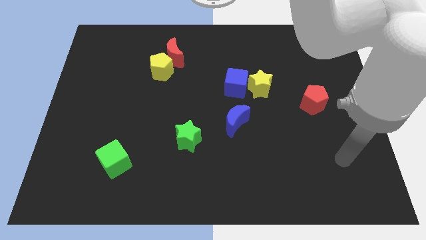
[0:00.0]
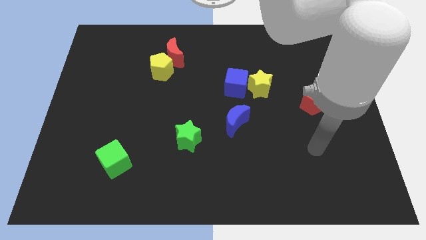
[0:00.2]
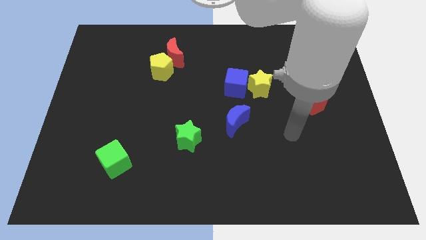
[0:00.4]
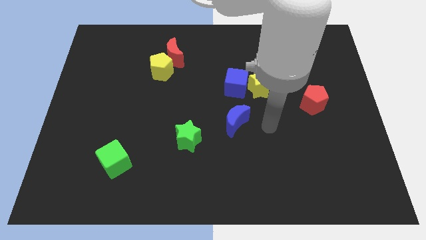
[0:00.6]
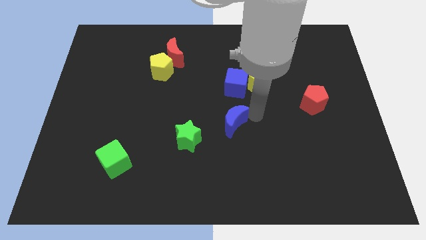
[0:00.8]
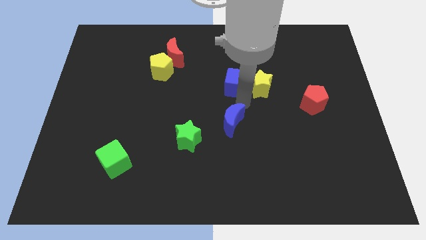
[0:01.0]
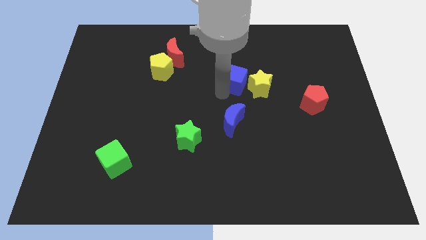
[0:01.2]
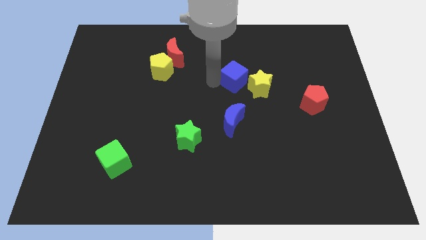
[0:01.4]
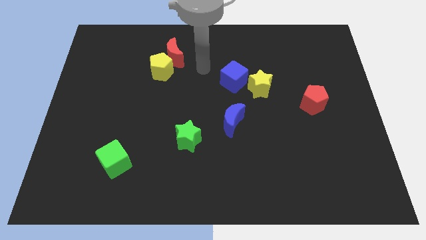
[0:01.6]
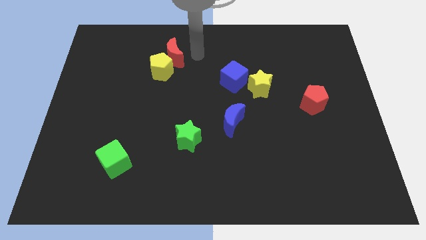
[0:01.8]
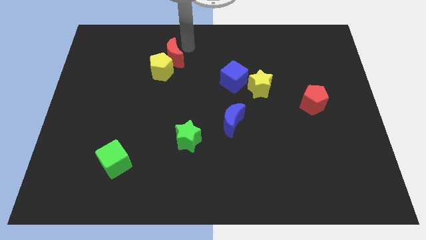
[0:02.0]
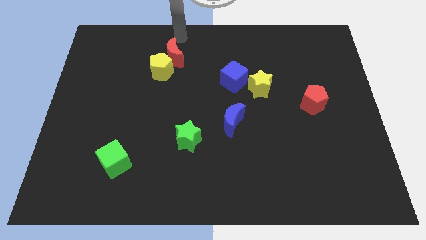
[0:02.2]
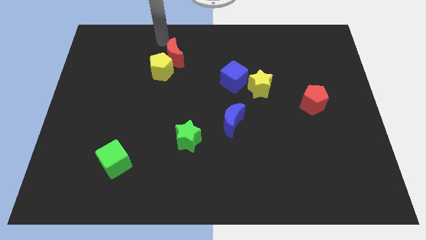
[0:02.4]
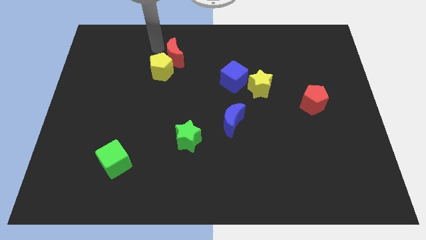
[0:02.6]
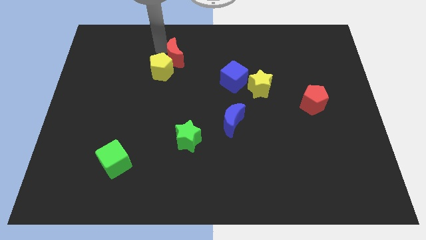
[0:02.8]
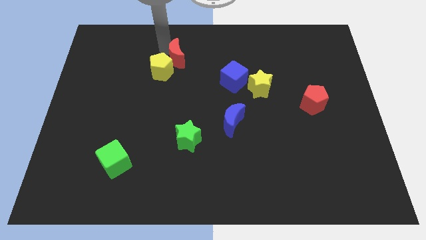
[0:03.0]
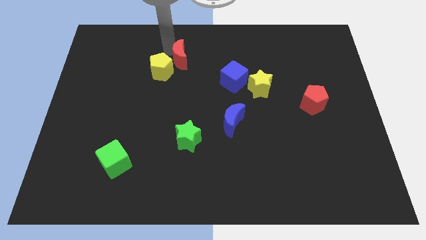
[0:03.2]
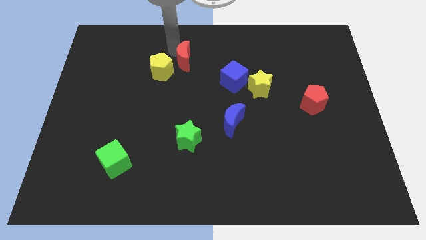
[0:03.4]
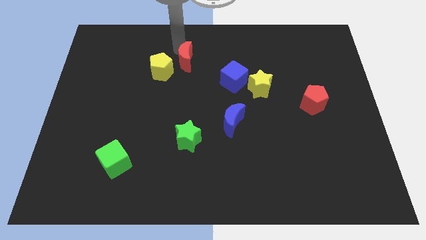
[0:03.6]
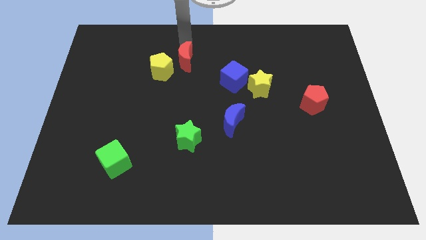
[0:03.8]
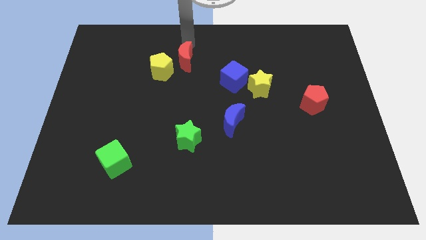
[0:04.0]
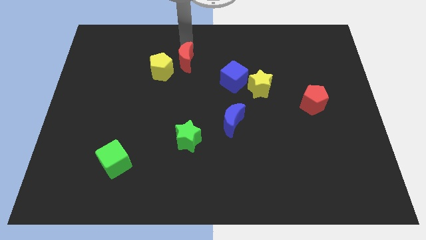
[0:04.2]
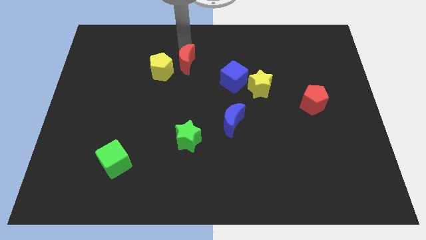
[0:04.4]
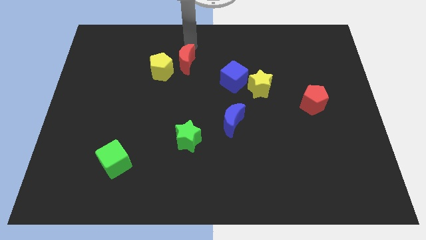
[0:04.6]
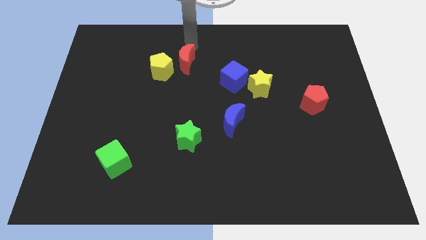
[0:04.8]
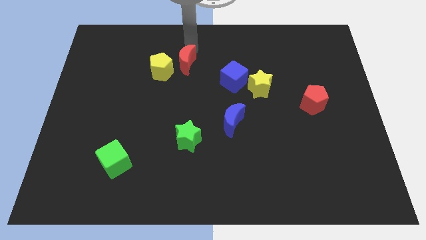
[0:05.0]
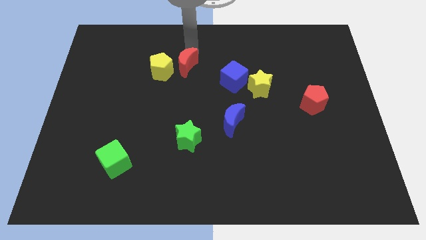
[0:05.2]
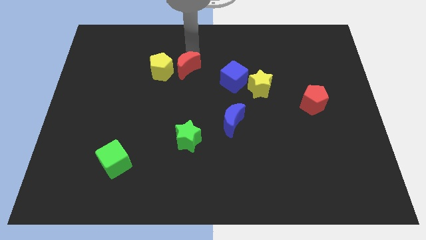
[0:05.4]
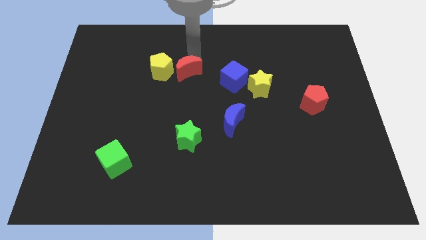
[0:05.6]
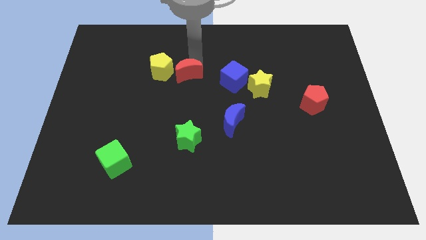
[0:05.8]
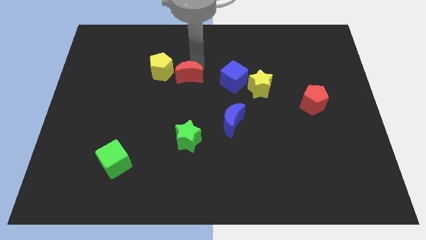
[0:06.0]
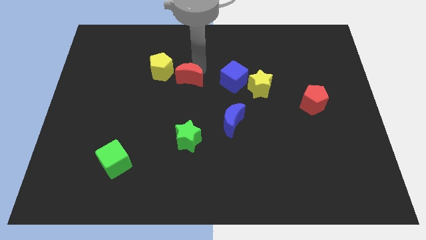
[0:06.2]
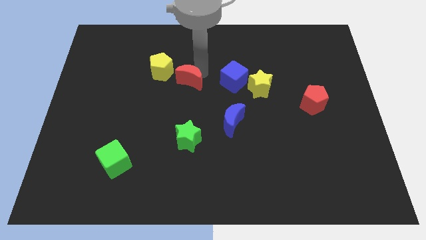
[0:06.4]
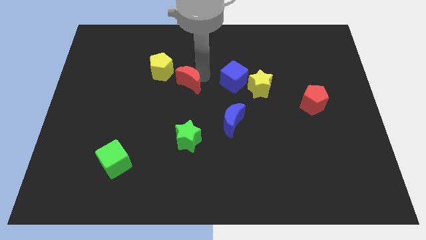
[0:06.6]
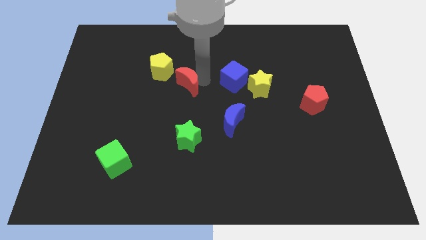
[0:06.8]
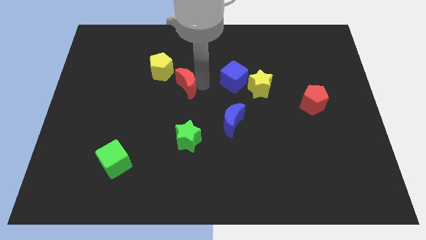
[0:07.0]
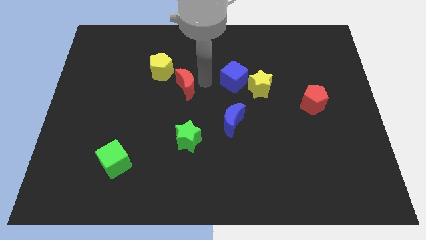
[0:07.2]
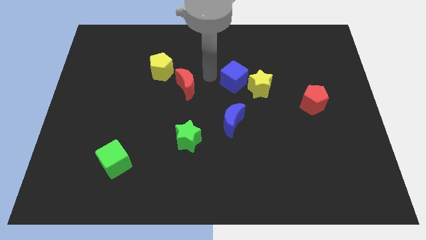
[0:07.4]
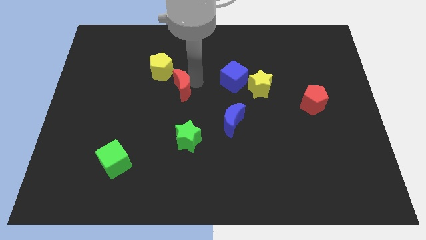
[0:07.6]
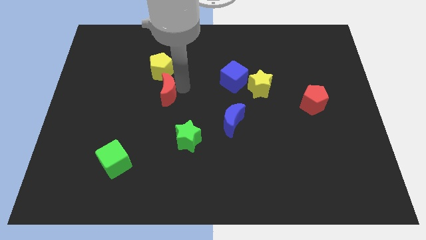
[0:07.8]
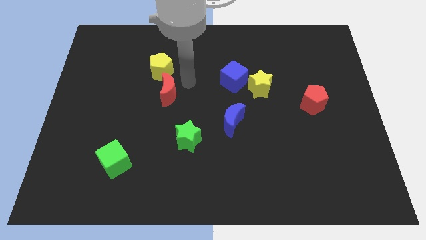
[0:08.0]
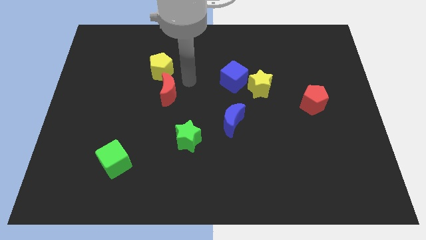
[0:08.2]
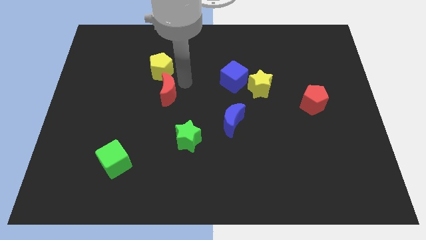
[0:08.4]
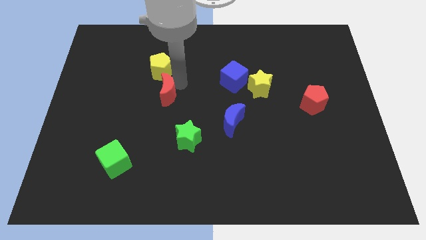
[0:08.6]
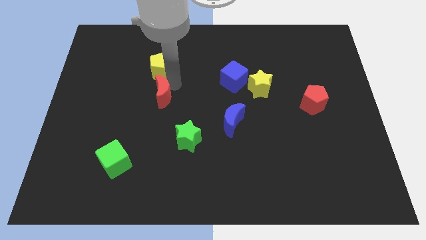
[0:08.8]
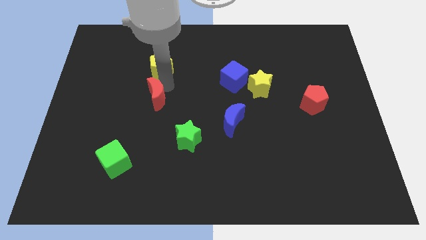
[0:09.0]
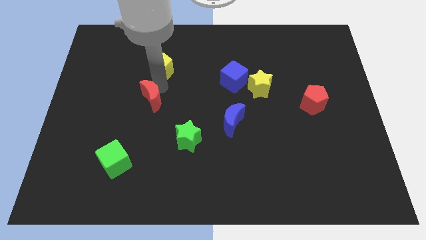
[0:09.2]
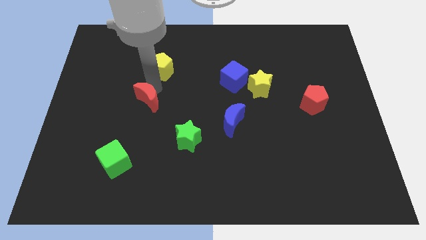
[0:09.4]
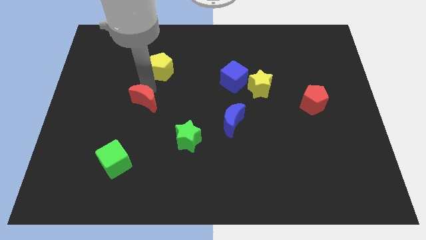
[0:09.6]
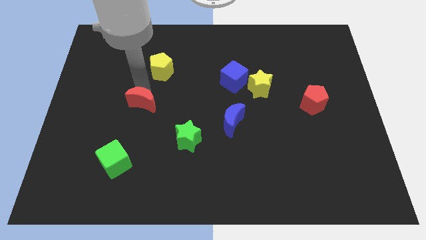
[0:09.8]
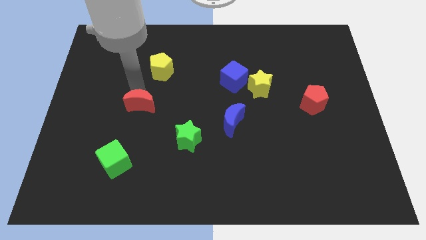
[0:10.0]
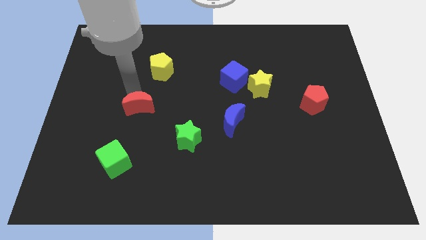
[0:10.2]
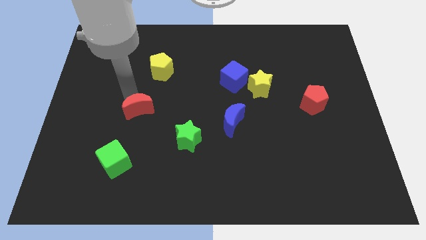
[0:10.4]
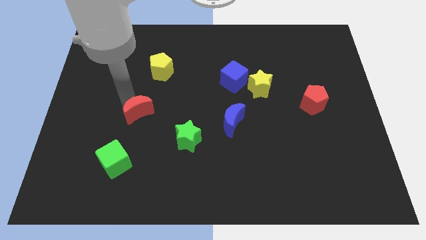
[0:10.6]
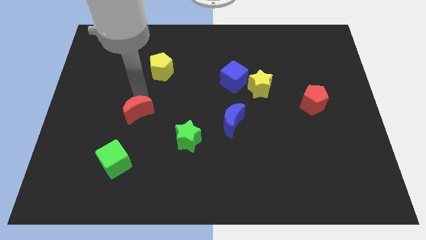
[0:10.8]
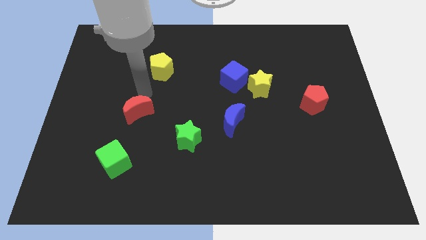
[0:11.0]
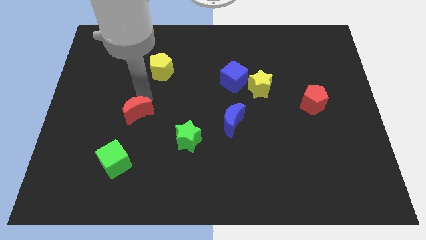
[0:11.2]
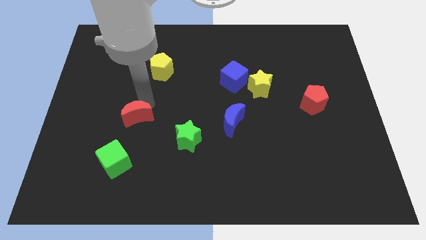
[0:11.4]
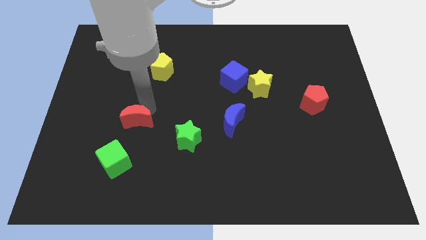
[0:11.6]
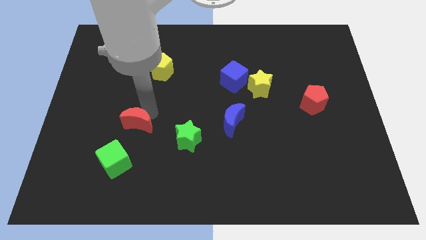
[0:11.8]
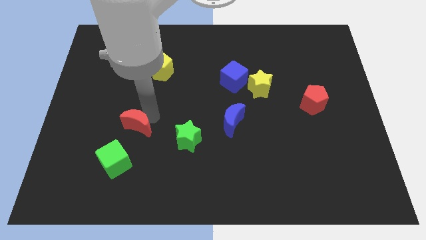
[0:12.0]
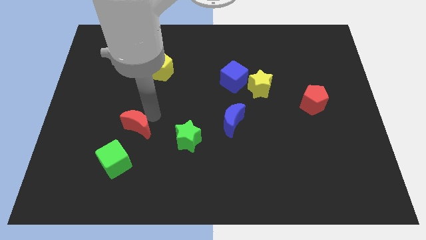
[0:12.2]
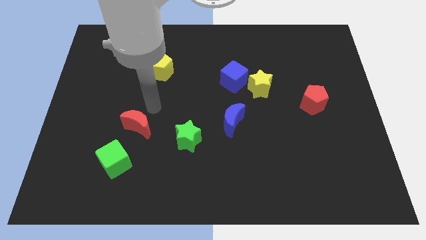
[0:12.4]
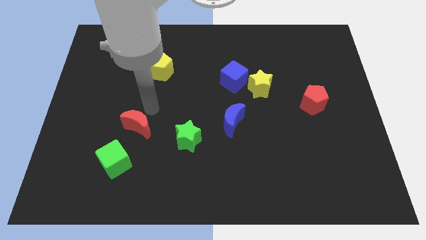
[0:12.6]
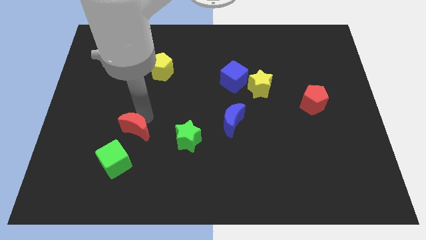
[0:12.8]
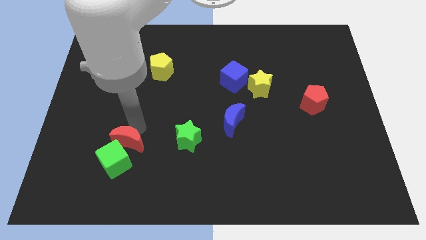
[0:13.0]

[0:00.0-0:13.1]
slide the red moon towards the green cube

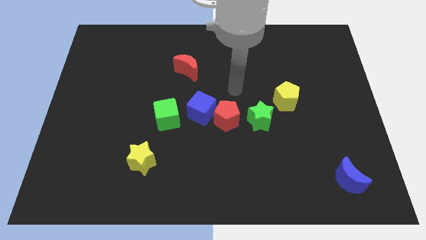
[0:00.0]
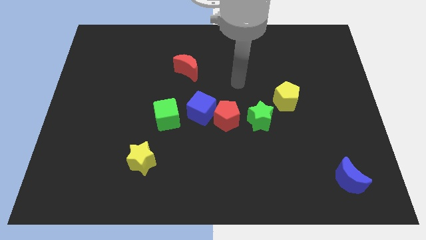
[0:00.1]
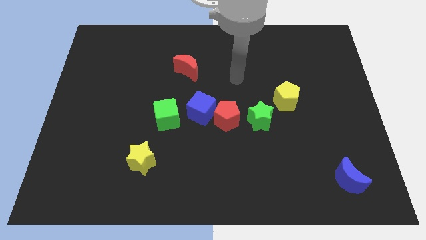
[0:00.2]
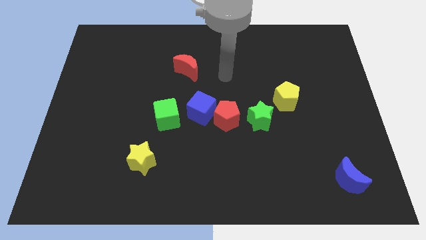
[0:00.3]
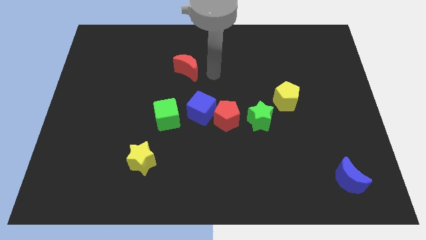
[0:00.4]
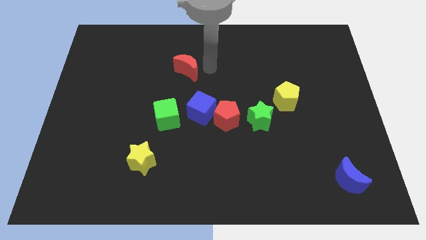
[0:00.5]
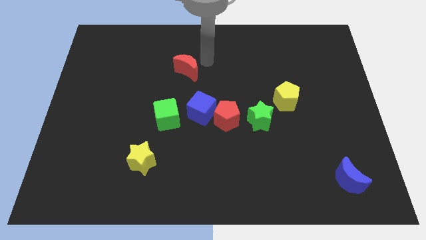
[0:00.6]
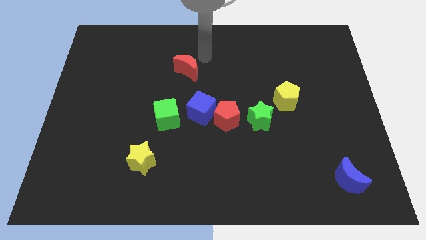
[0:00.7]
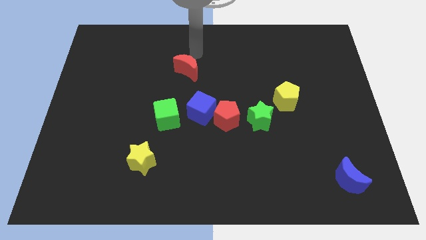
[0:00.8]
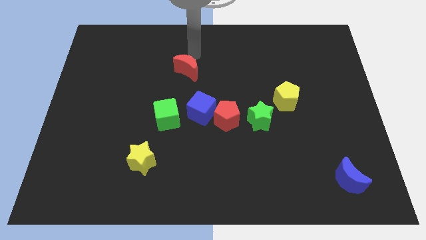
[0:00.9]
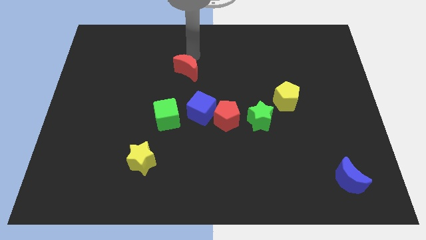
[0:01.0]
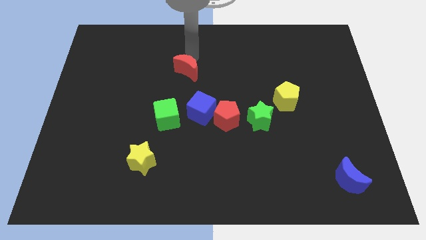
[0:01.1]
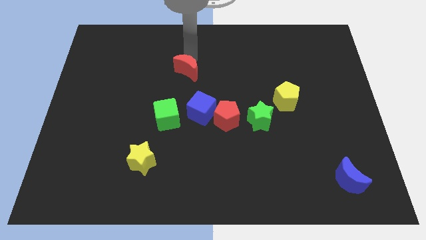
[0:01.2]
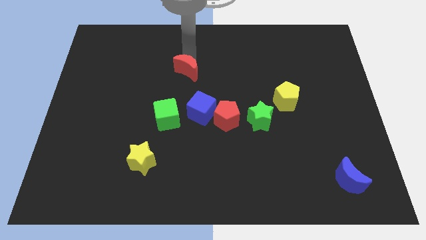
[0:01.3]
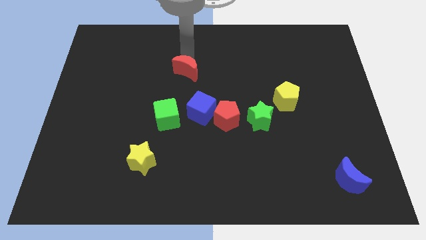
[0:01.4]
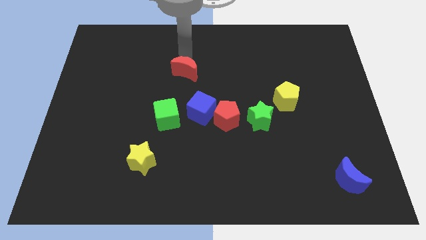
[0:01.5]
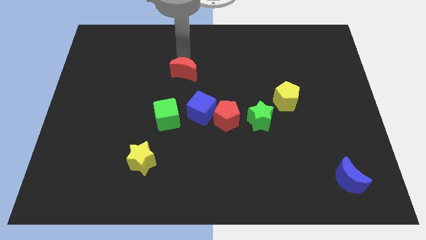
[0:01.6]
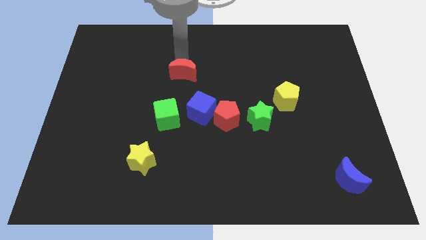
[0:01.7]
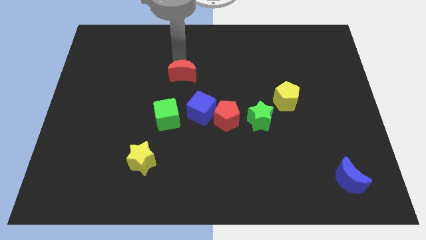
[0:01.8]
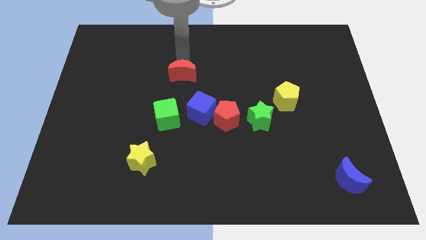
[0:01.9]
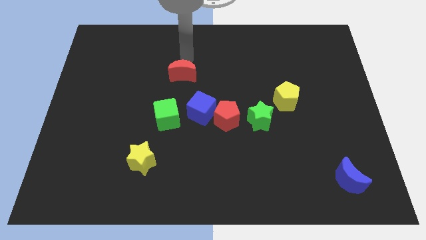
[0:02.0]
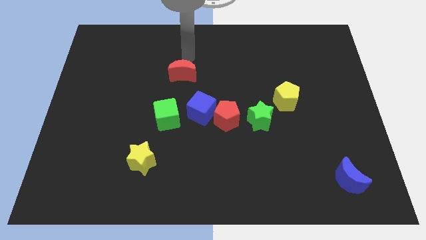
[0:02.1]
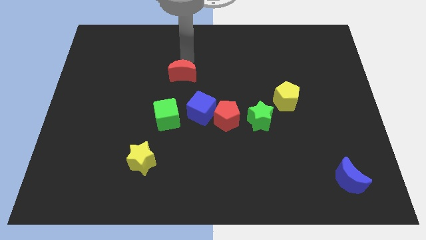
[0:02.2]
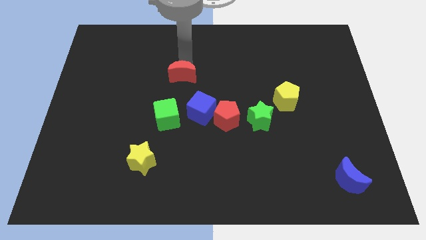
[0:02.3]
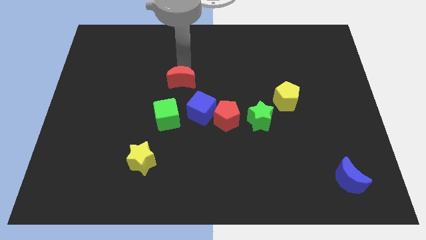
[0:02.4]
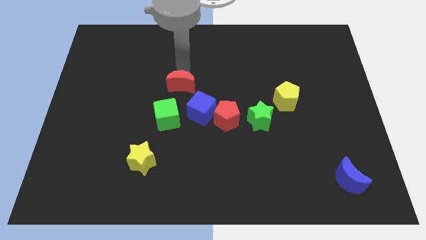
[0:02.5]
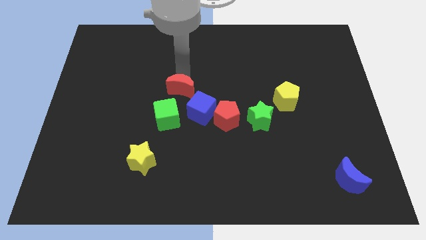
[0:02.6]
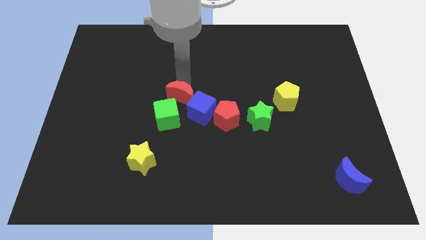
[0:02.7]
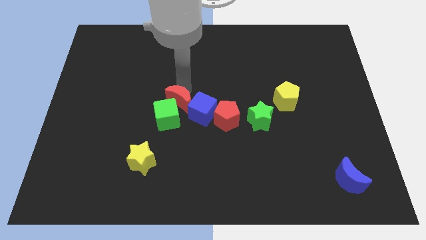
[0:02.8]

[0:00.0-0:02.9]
slide the red moon close to the green cube
